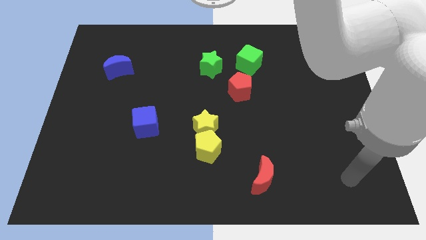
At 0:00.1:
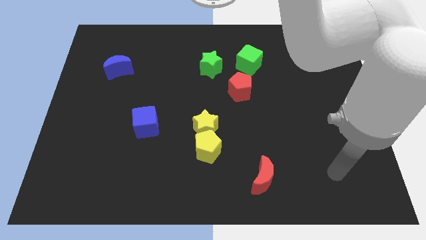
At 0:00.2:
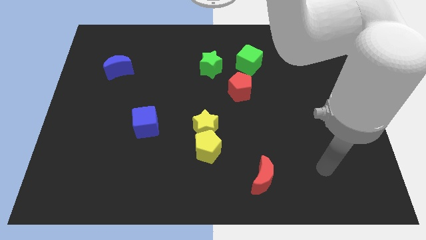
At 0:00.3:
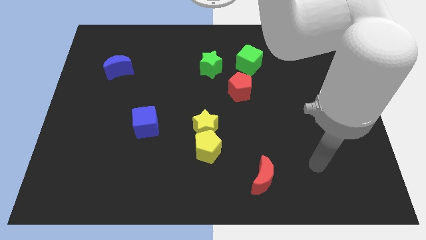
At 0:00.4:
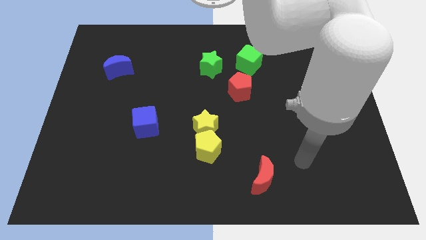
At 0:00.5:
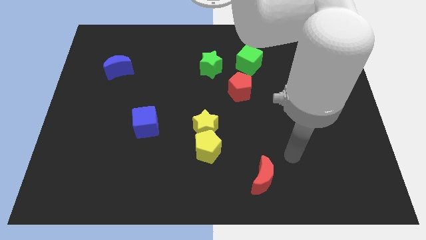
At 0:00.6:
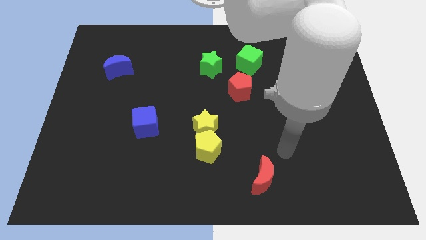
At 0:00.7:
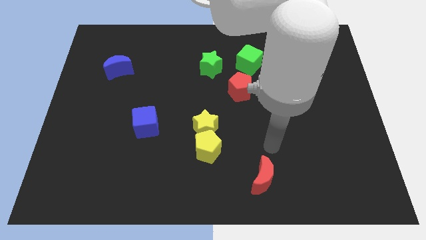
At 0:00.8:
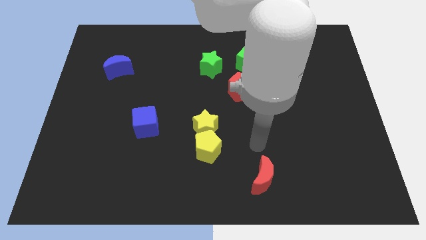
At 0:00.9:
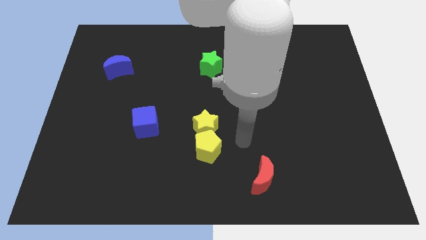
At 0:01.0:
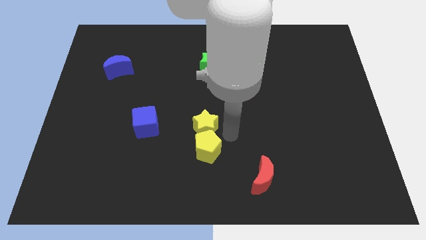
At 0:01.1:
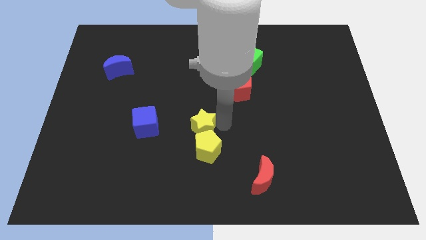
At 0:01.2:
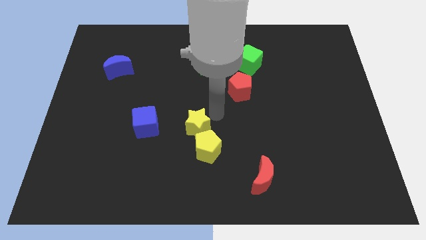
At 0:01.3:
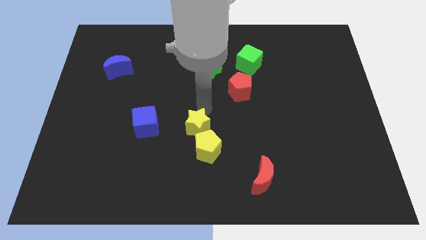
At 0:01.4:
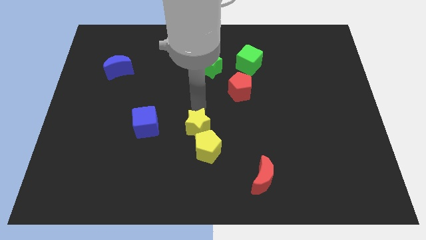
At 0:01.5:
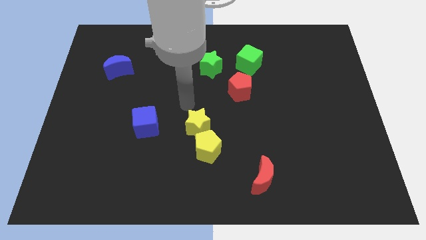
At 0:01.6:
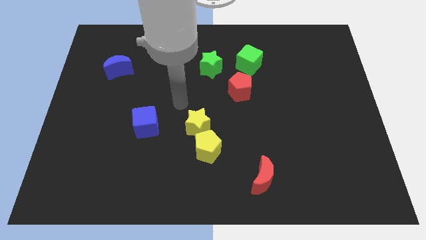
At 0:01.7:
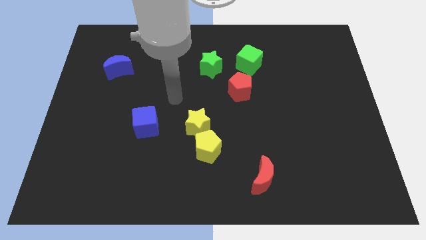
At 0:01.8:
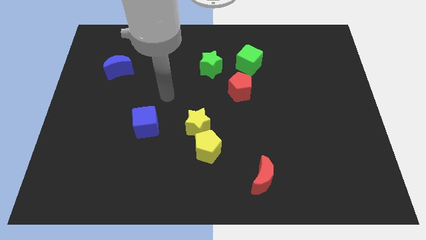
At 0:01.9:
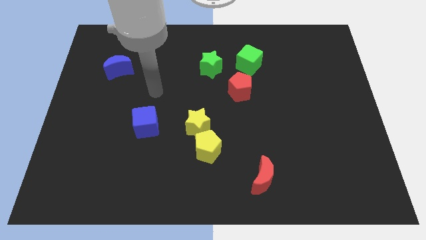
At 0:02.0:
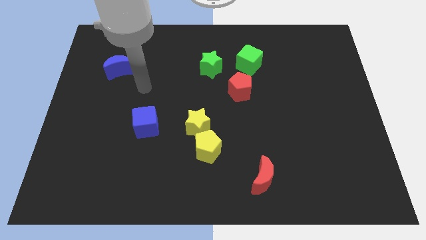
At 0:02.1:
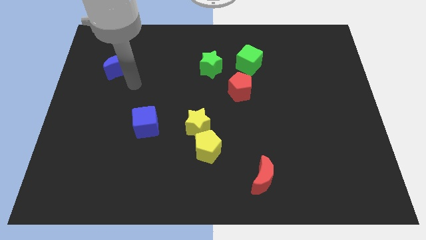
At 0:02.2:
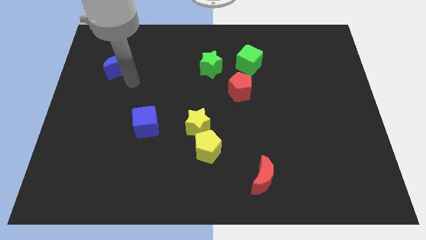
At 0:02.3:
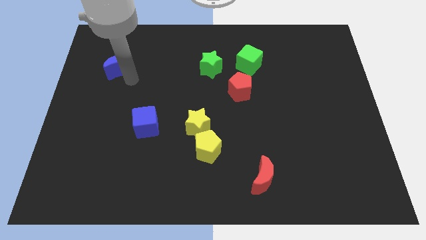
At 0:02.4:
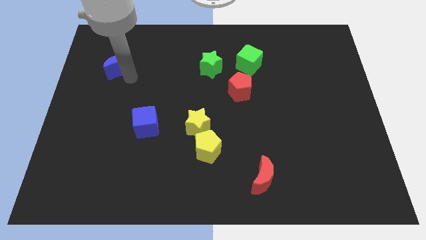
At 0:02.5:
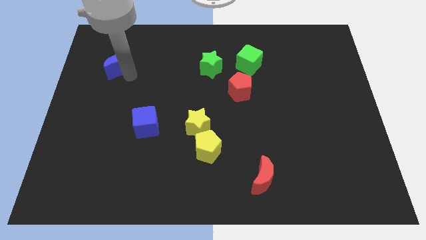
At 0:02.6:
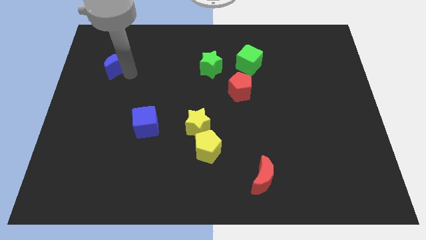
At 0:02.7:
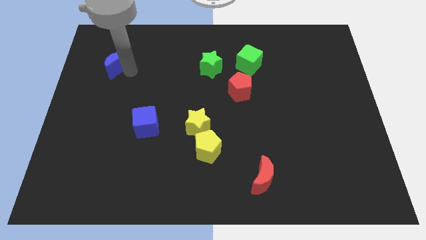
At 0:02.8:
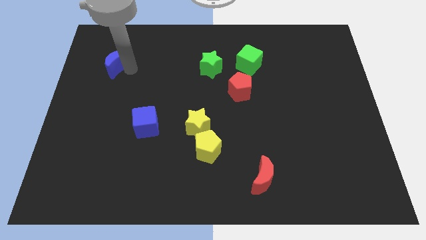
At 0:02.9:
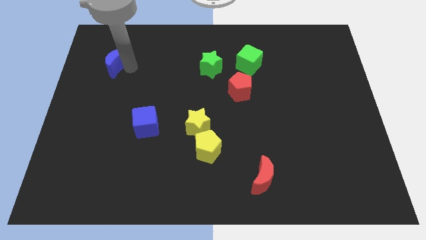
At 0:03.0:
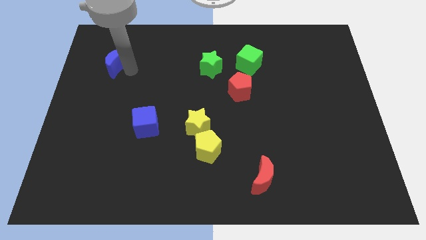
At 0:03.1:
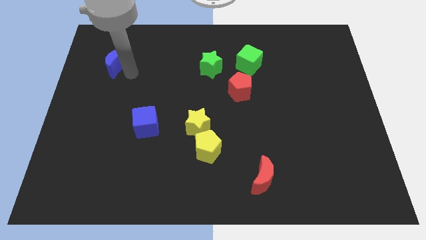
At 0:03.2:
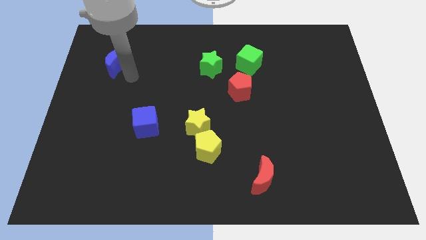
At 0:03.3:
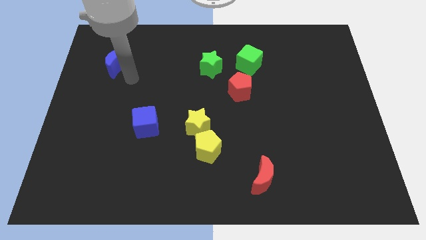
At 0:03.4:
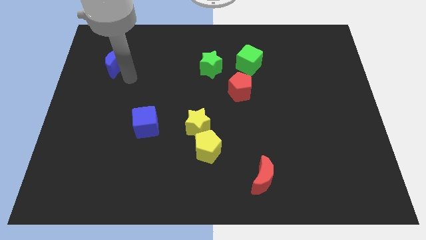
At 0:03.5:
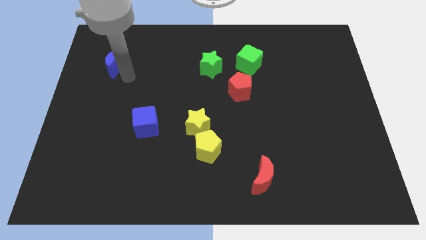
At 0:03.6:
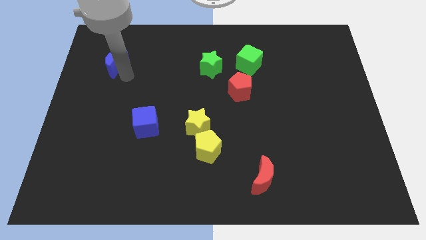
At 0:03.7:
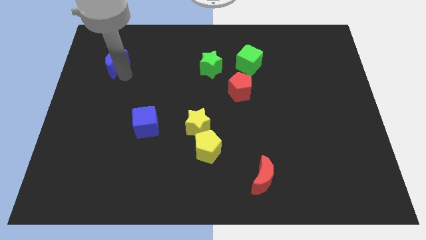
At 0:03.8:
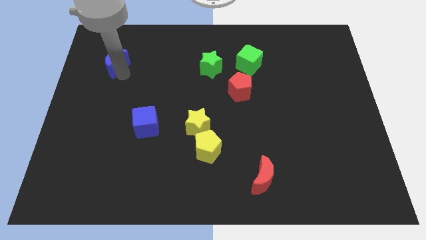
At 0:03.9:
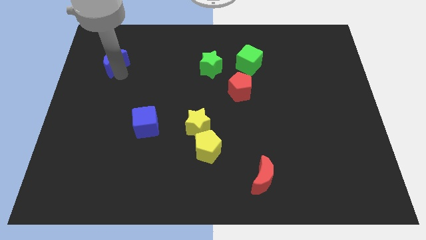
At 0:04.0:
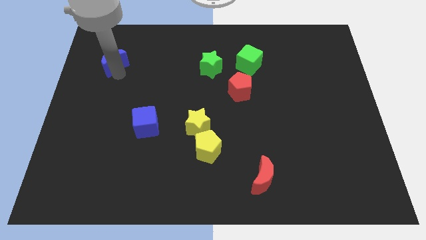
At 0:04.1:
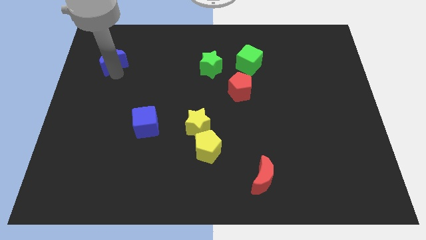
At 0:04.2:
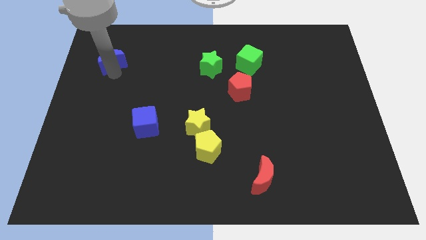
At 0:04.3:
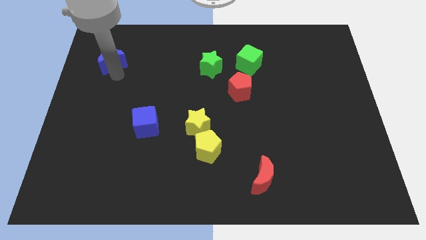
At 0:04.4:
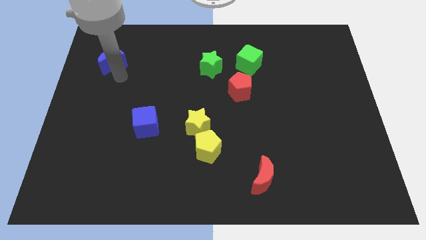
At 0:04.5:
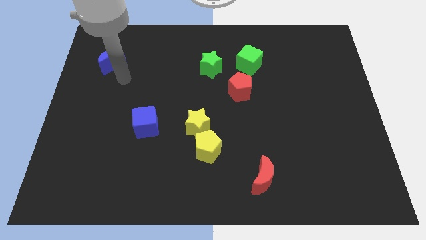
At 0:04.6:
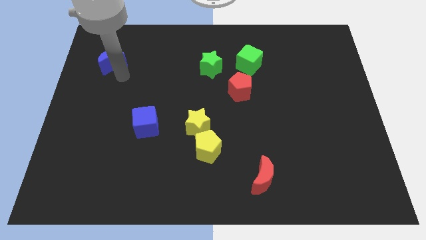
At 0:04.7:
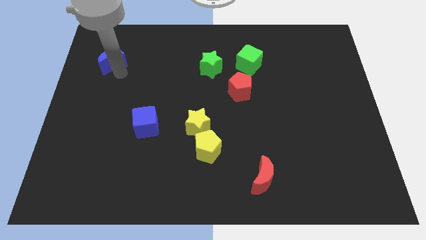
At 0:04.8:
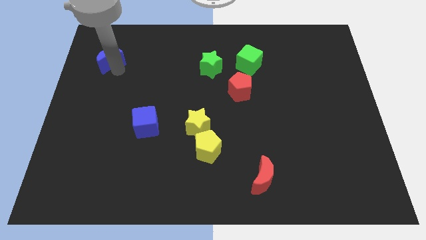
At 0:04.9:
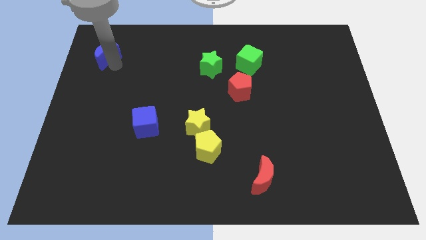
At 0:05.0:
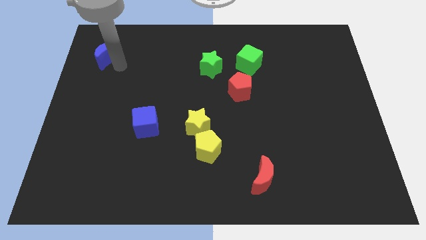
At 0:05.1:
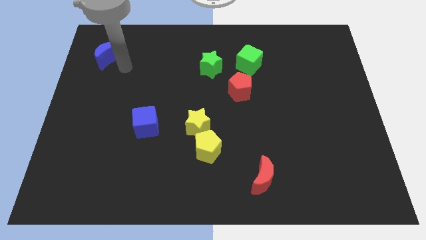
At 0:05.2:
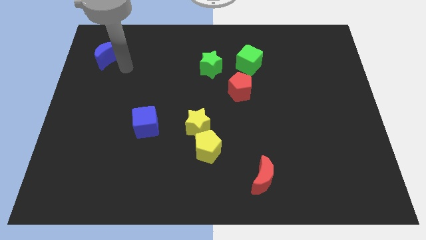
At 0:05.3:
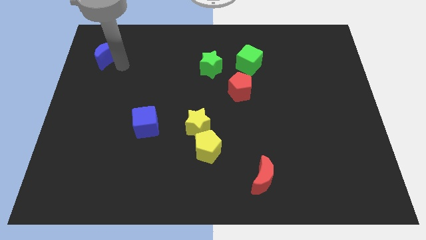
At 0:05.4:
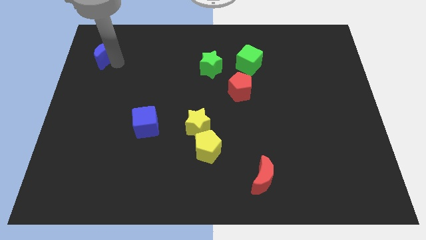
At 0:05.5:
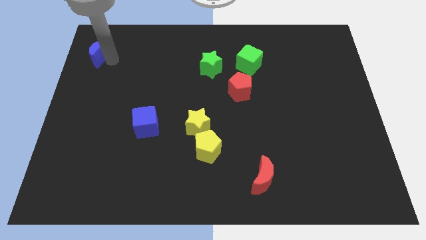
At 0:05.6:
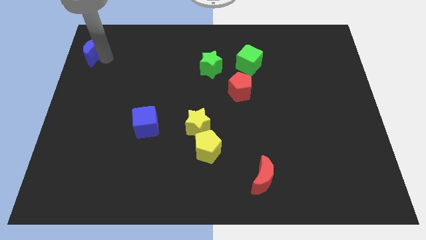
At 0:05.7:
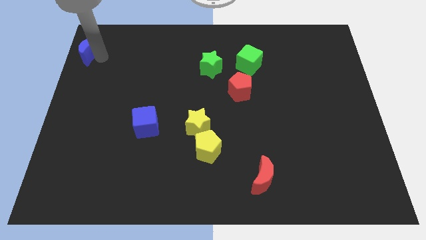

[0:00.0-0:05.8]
move the blue moon to the upper left corner
